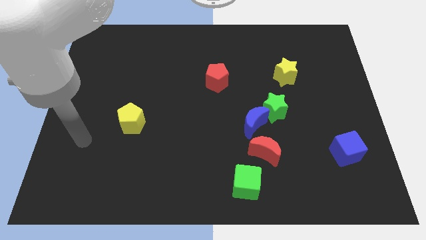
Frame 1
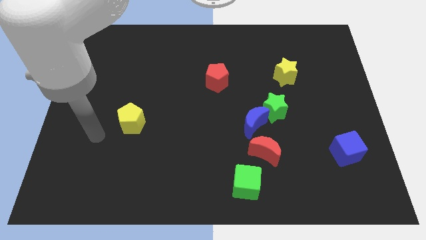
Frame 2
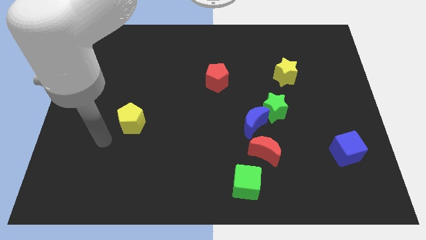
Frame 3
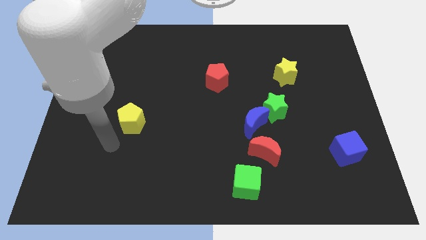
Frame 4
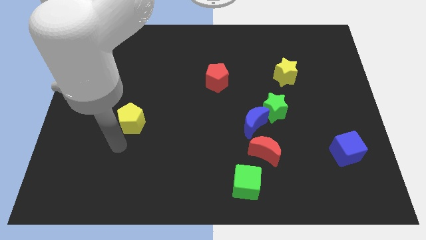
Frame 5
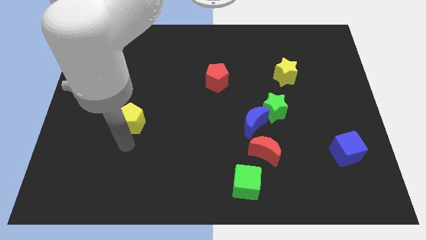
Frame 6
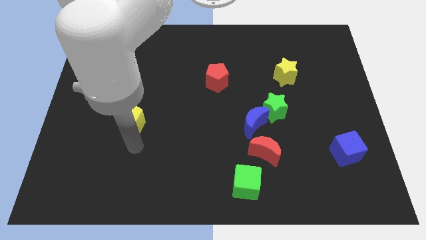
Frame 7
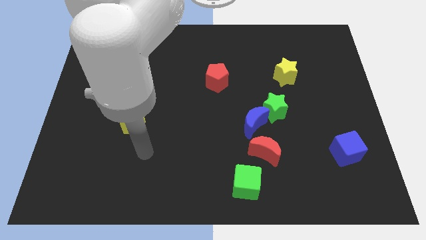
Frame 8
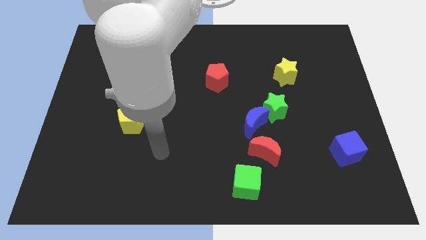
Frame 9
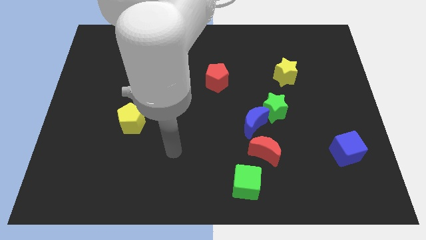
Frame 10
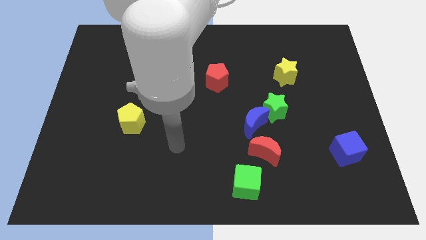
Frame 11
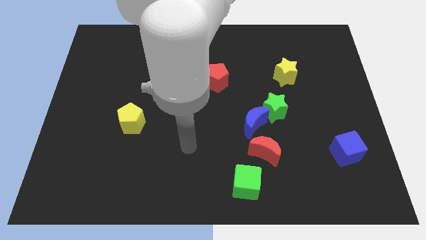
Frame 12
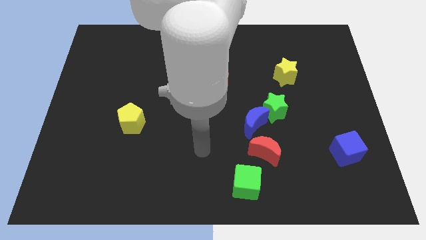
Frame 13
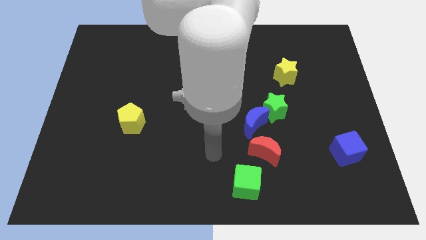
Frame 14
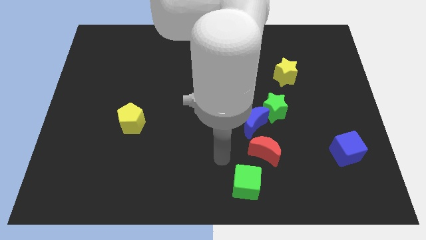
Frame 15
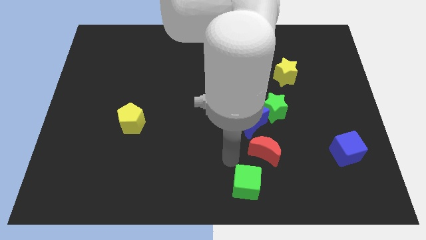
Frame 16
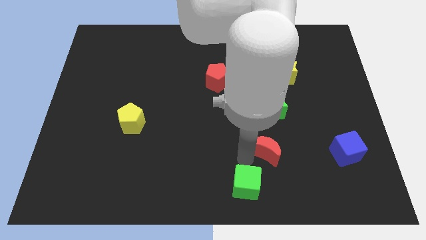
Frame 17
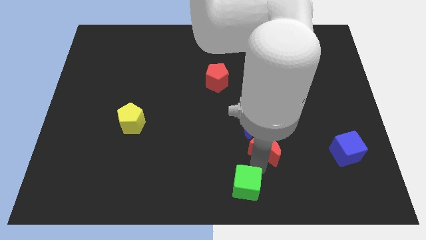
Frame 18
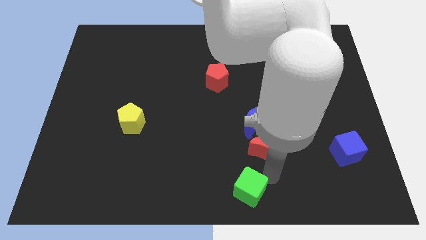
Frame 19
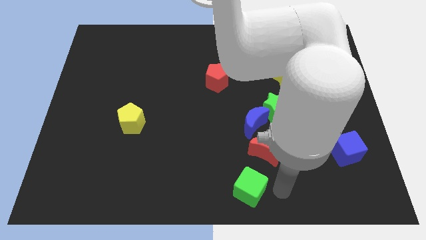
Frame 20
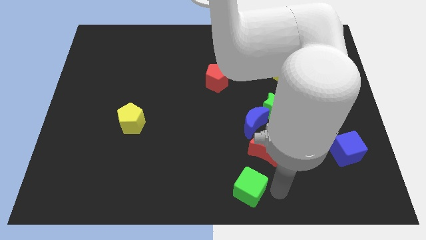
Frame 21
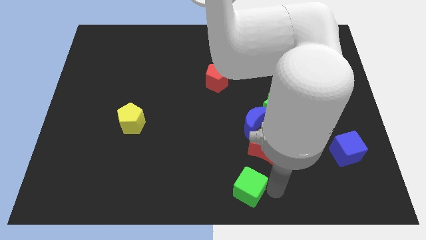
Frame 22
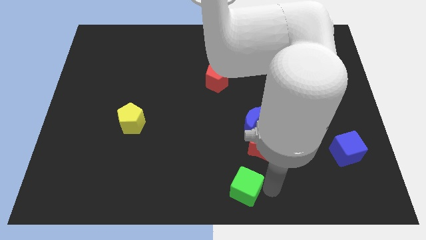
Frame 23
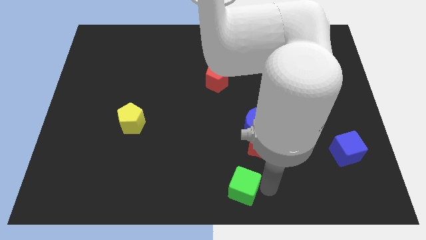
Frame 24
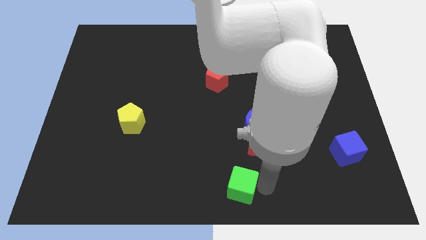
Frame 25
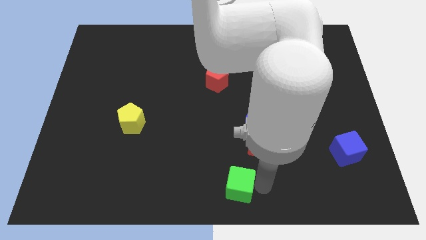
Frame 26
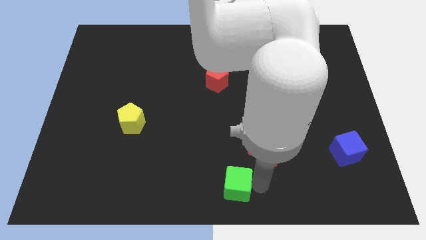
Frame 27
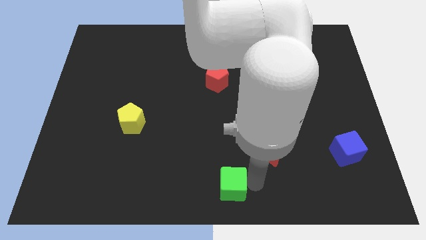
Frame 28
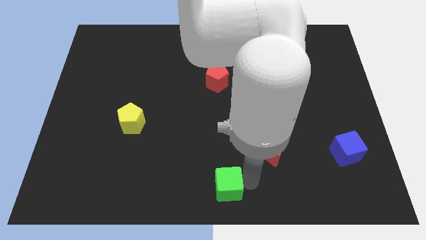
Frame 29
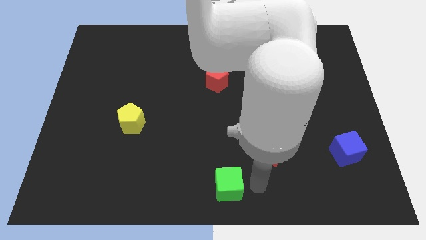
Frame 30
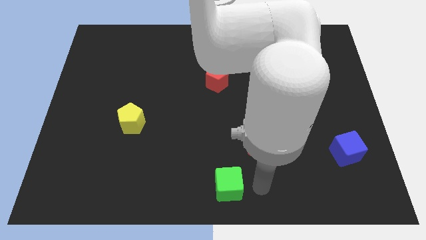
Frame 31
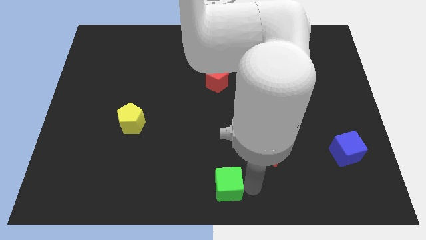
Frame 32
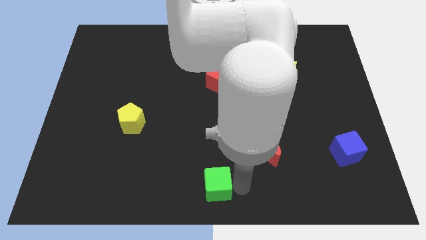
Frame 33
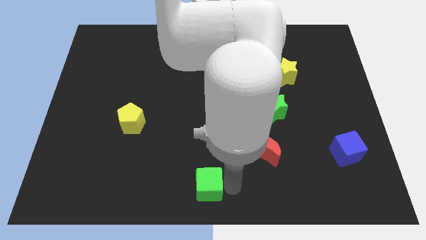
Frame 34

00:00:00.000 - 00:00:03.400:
slightly slide the green cube left

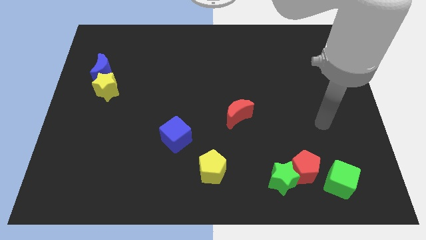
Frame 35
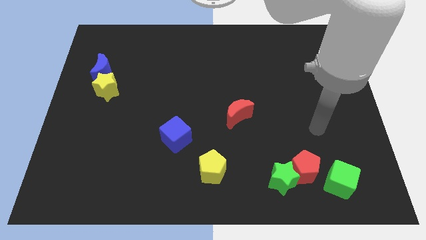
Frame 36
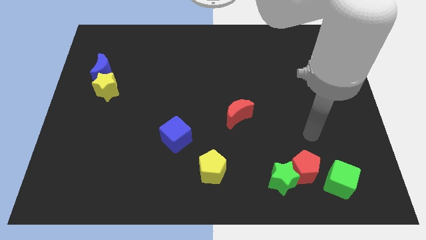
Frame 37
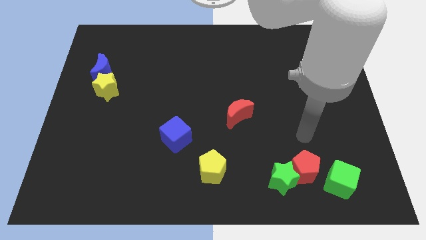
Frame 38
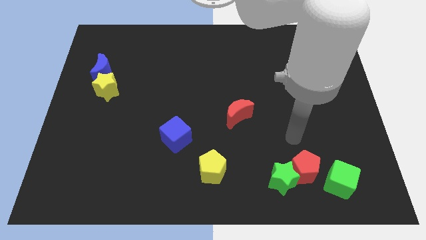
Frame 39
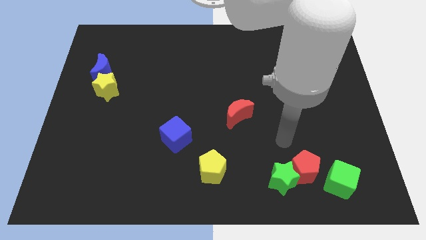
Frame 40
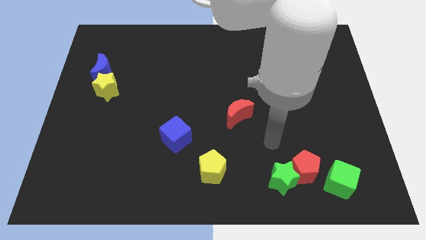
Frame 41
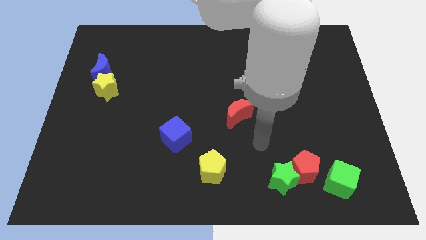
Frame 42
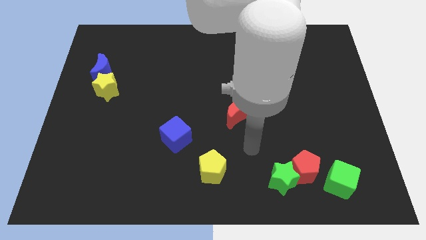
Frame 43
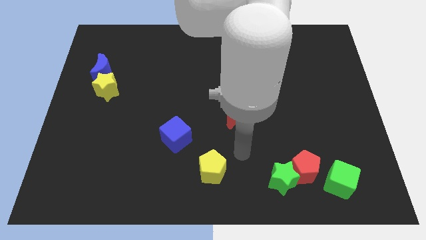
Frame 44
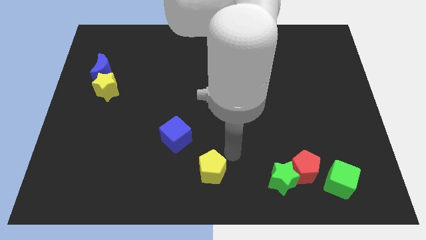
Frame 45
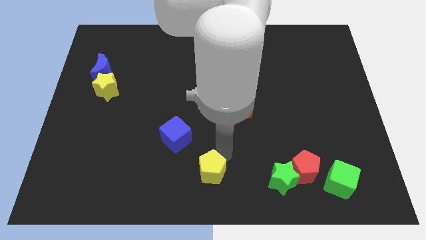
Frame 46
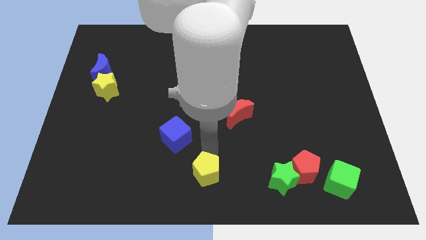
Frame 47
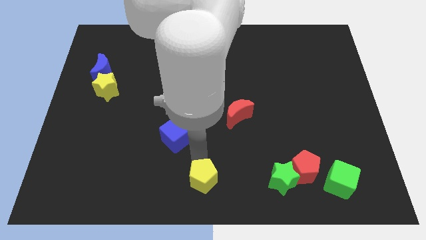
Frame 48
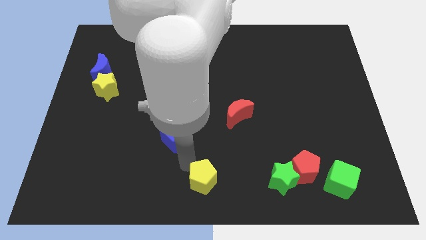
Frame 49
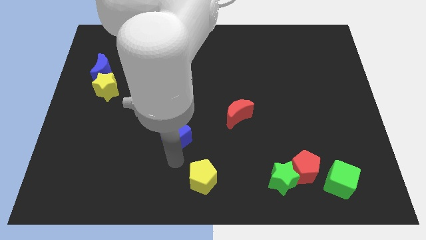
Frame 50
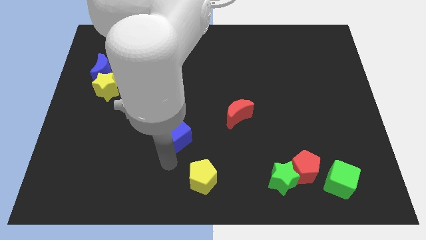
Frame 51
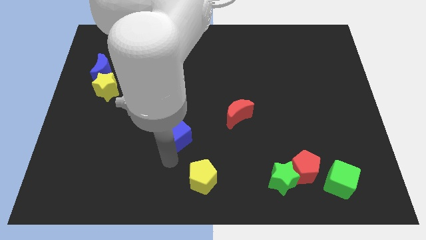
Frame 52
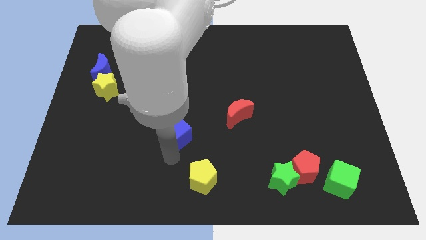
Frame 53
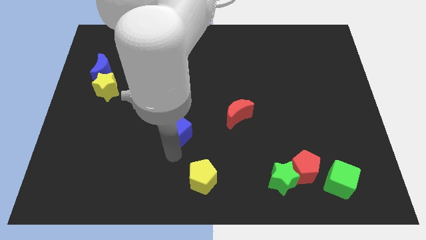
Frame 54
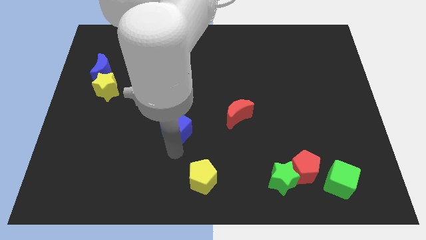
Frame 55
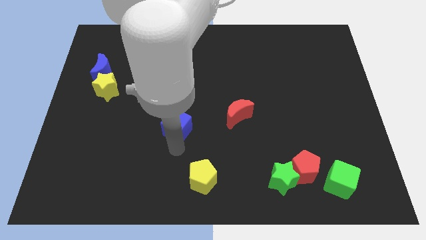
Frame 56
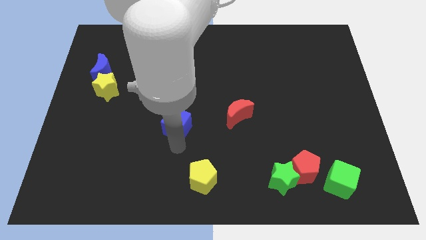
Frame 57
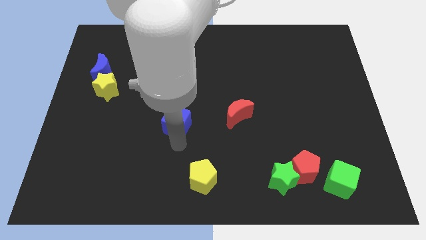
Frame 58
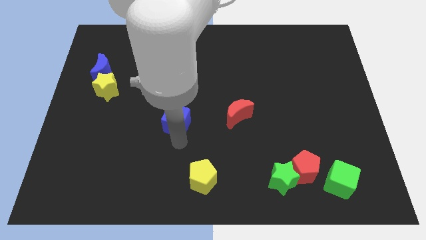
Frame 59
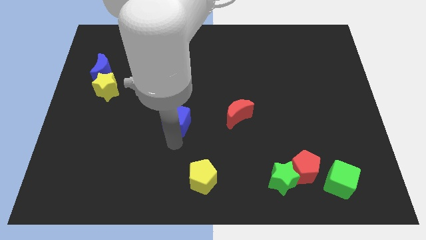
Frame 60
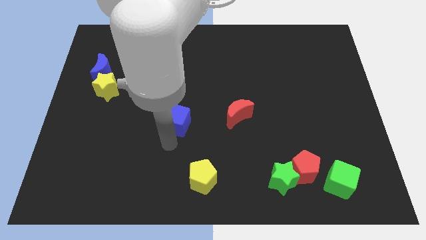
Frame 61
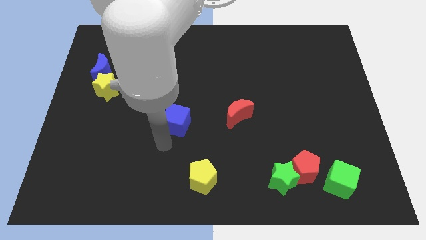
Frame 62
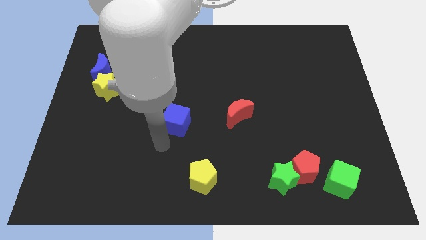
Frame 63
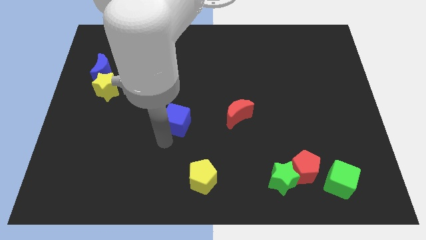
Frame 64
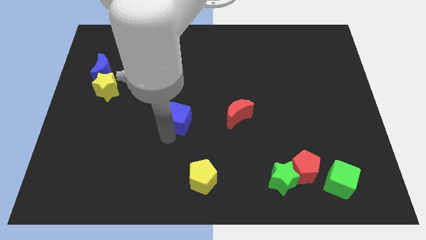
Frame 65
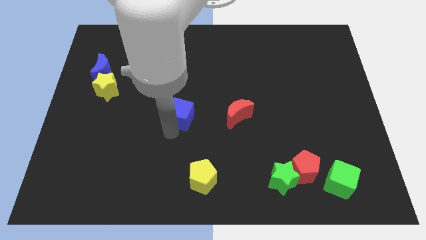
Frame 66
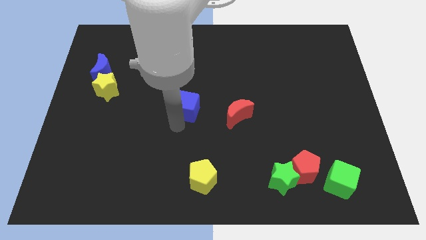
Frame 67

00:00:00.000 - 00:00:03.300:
slide the blue cube upwards slightly

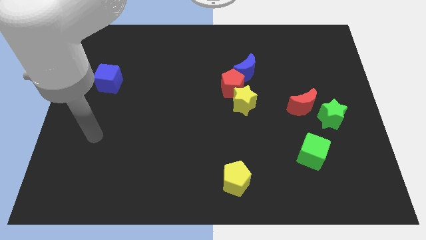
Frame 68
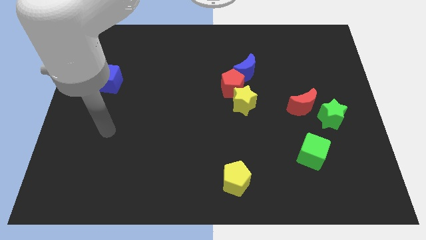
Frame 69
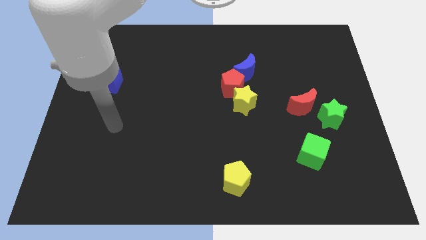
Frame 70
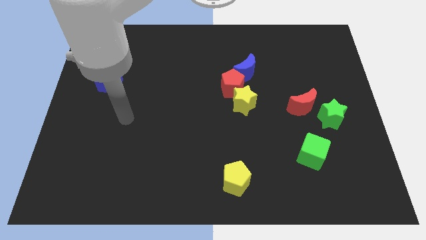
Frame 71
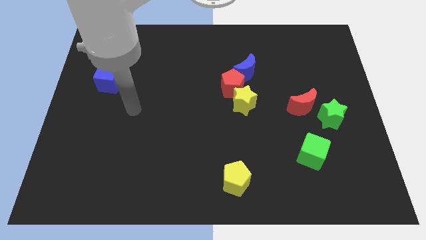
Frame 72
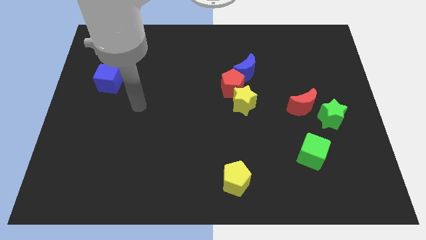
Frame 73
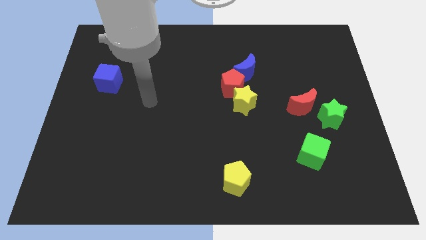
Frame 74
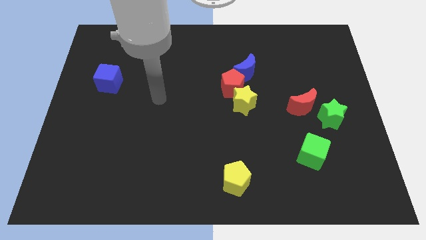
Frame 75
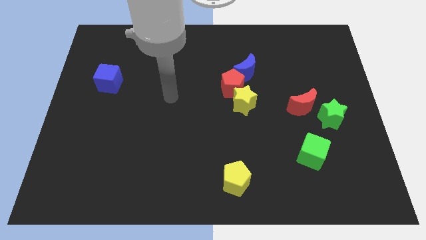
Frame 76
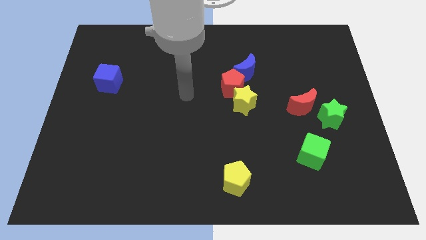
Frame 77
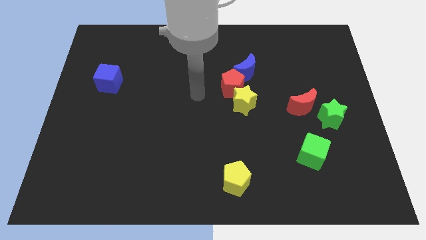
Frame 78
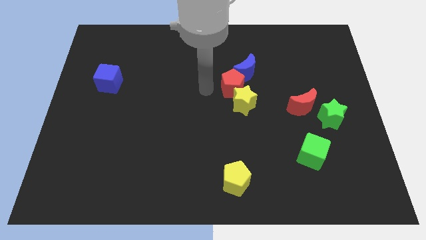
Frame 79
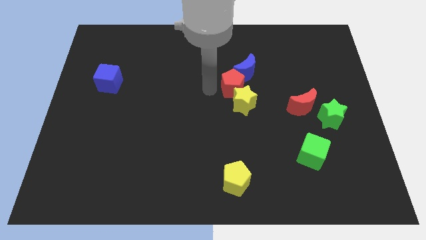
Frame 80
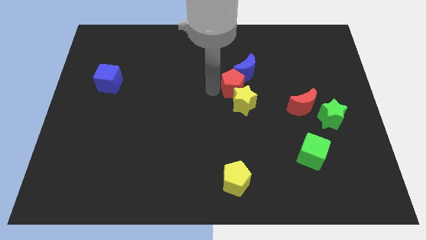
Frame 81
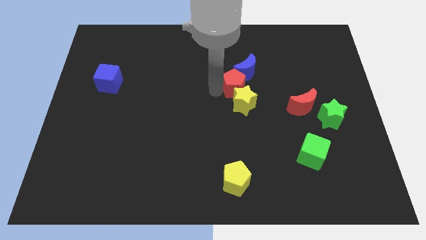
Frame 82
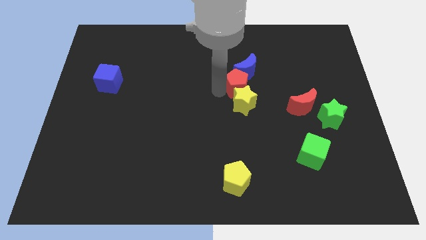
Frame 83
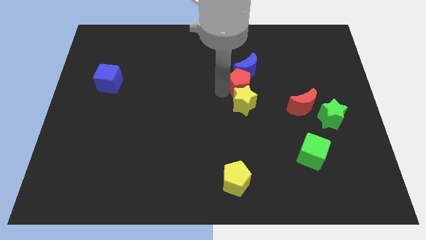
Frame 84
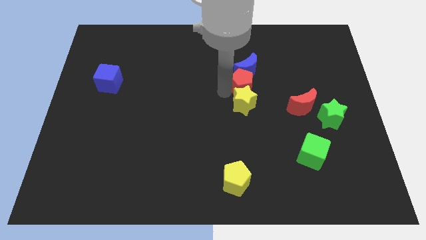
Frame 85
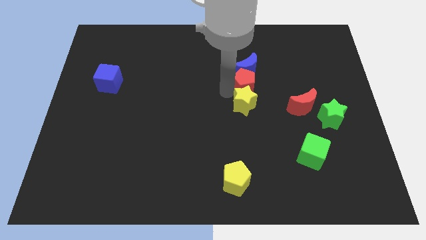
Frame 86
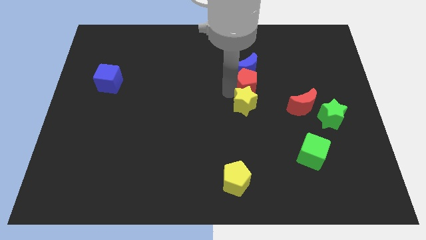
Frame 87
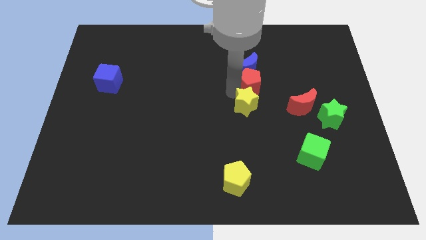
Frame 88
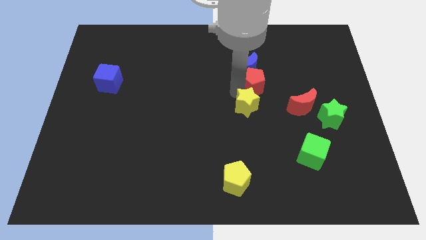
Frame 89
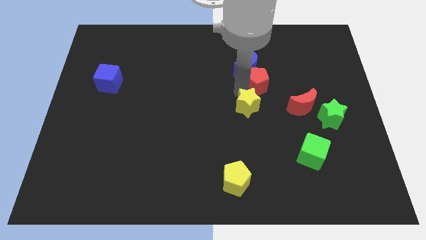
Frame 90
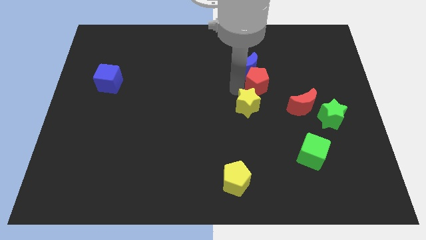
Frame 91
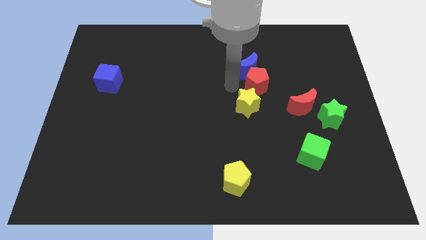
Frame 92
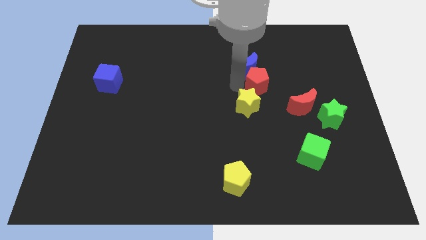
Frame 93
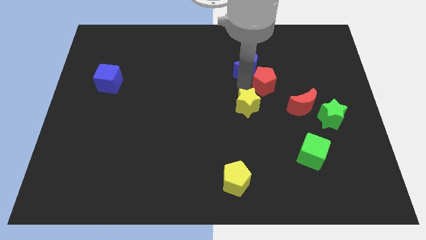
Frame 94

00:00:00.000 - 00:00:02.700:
move the red pentagon right a bit
